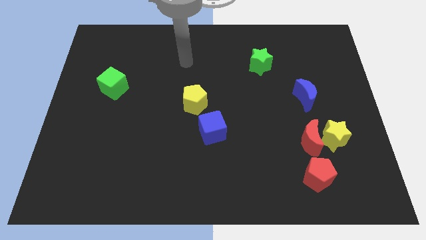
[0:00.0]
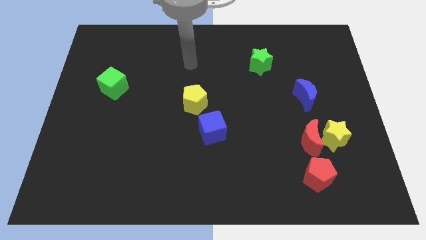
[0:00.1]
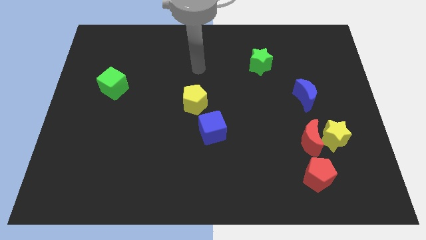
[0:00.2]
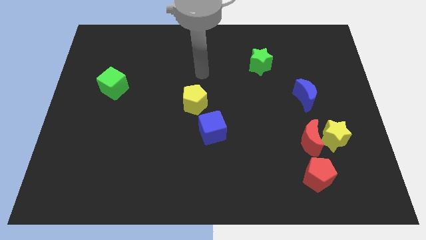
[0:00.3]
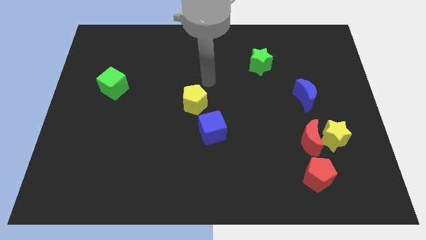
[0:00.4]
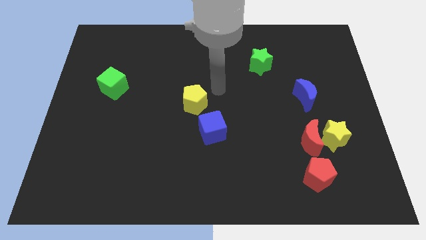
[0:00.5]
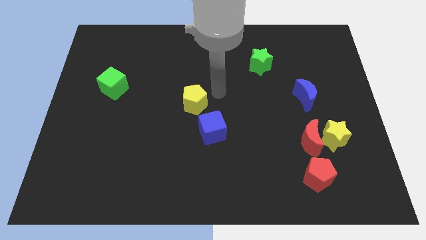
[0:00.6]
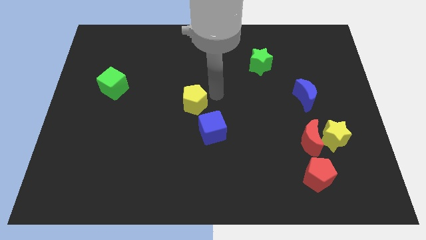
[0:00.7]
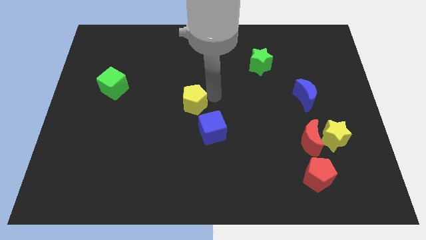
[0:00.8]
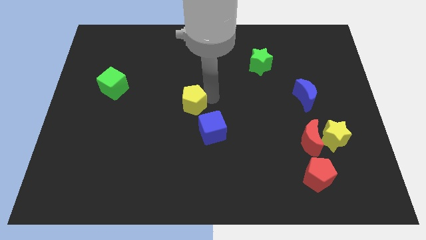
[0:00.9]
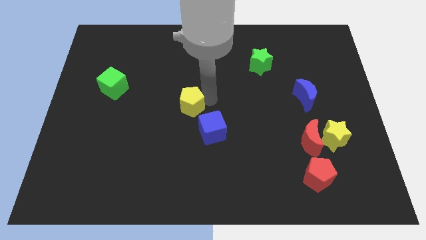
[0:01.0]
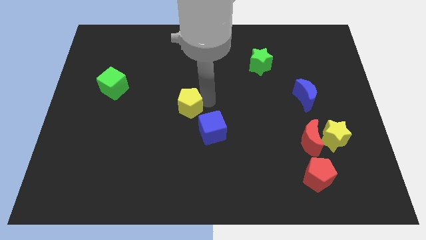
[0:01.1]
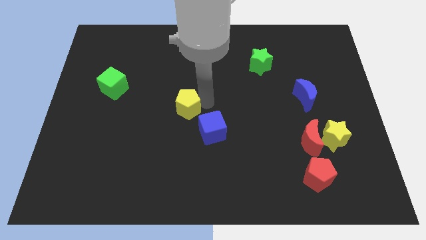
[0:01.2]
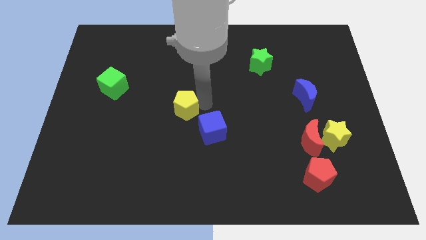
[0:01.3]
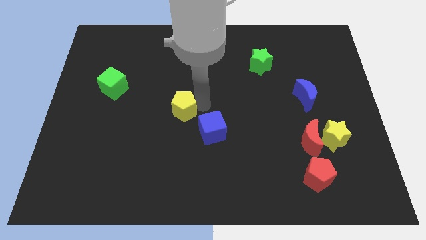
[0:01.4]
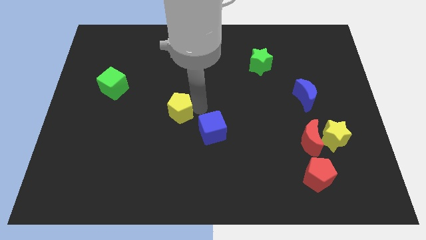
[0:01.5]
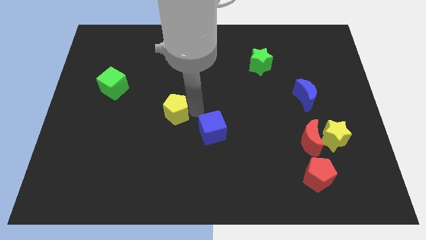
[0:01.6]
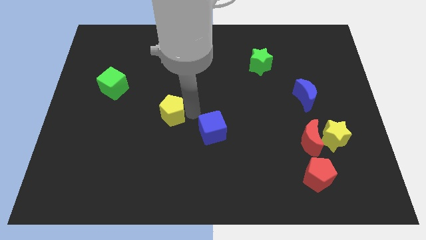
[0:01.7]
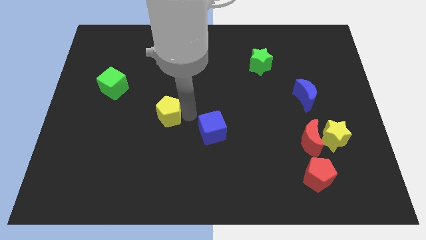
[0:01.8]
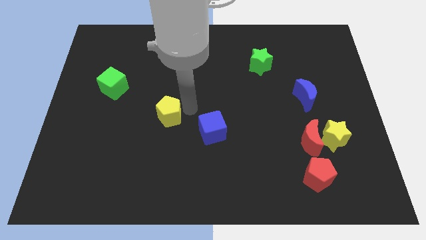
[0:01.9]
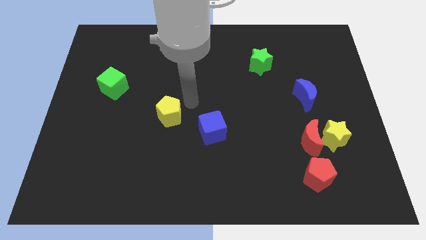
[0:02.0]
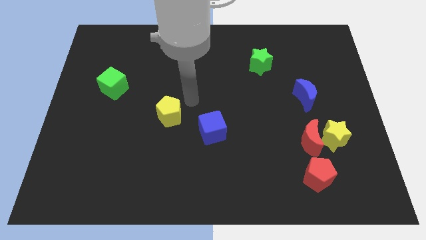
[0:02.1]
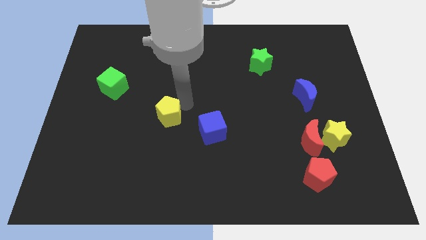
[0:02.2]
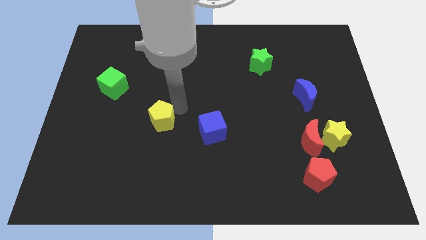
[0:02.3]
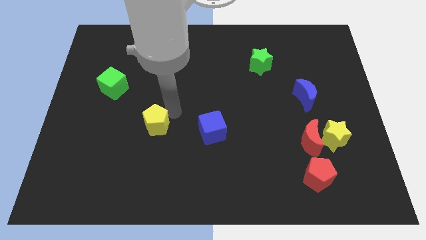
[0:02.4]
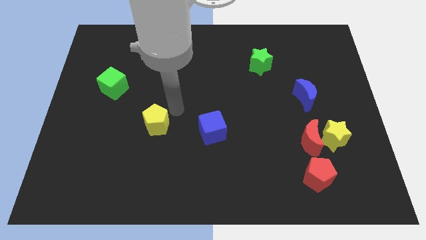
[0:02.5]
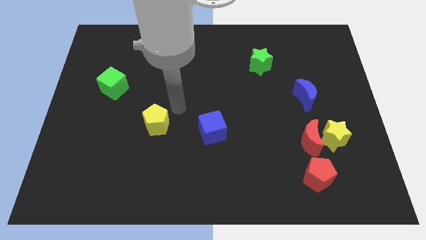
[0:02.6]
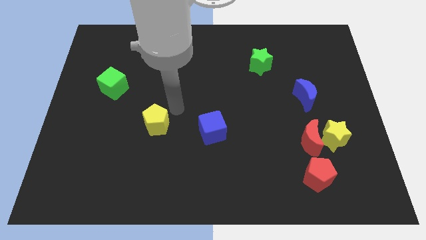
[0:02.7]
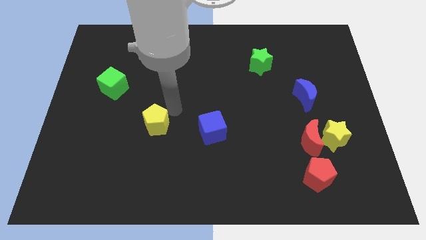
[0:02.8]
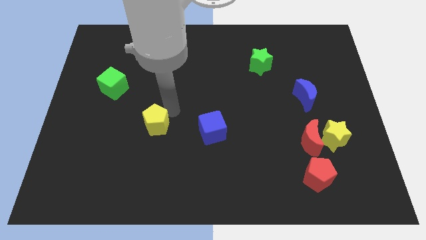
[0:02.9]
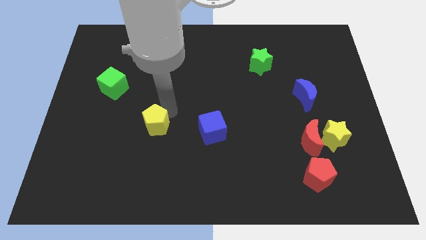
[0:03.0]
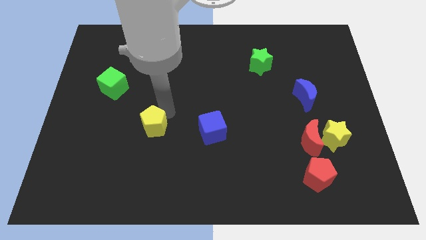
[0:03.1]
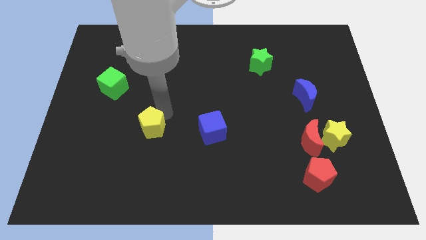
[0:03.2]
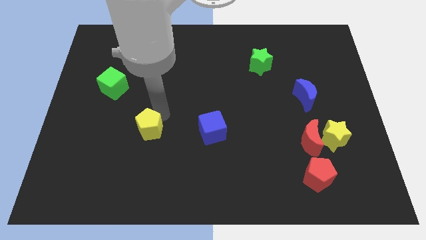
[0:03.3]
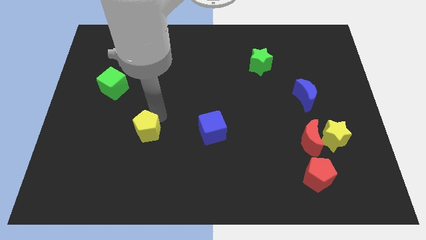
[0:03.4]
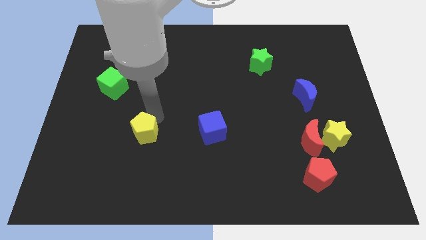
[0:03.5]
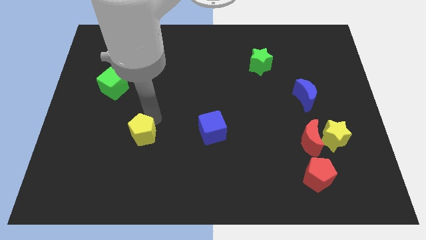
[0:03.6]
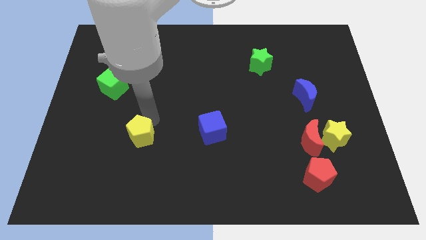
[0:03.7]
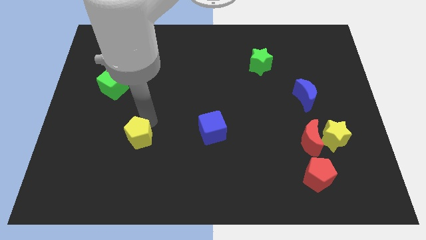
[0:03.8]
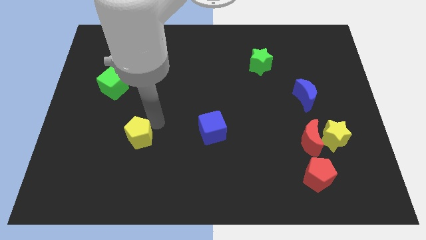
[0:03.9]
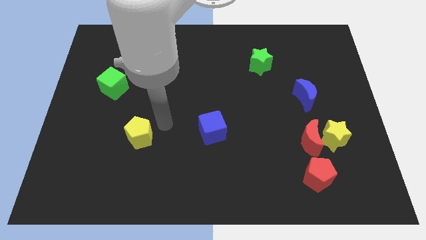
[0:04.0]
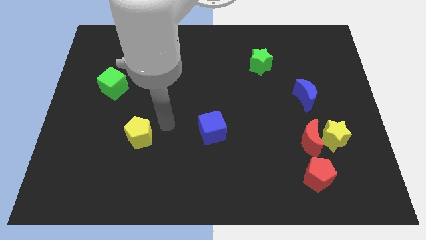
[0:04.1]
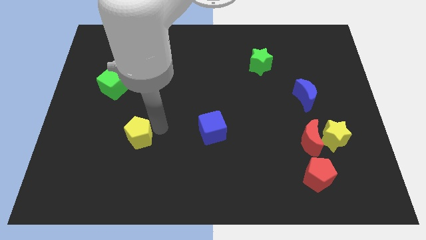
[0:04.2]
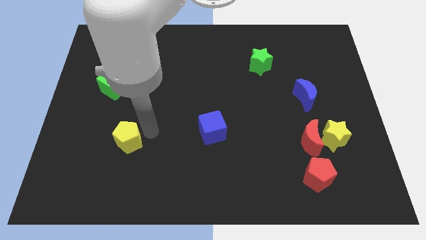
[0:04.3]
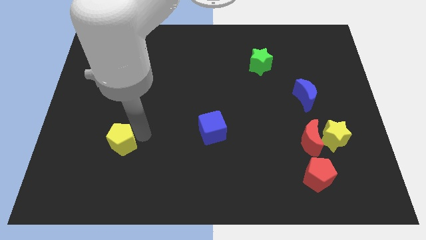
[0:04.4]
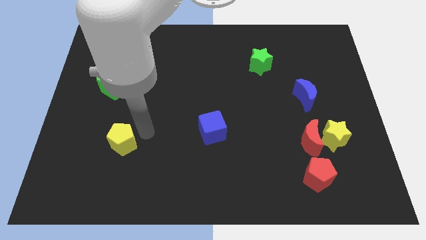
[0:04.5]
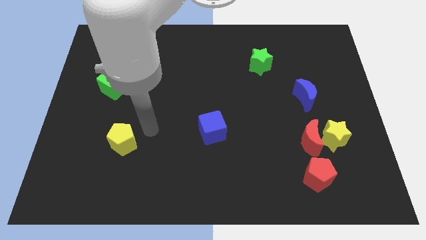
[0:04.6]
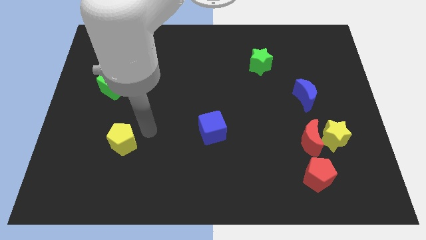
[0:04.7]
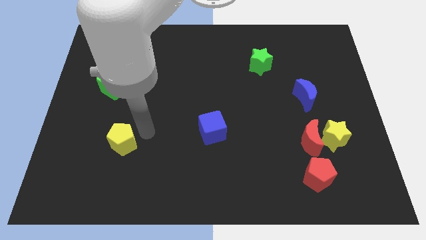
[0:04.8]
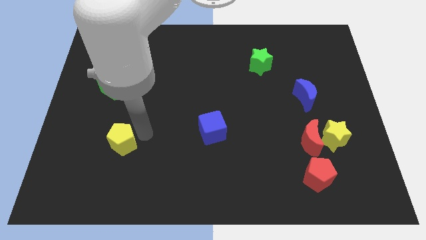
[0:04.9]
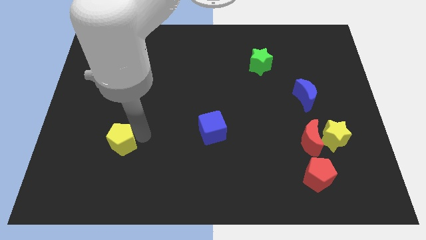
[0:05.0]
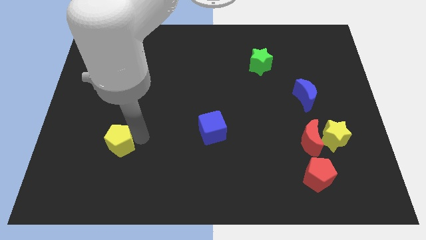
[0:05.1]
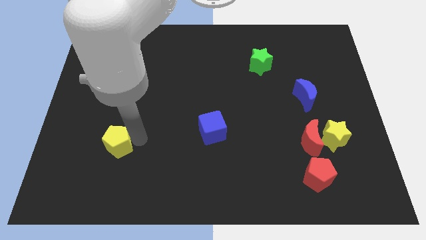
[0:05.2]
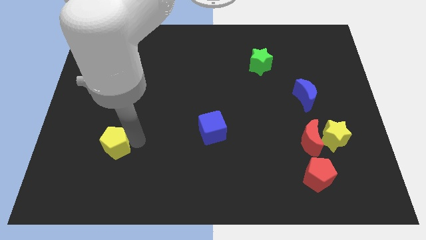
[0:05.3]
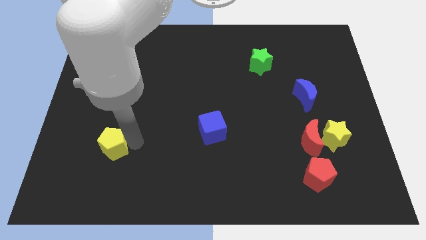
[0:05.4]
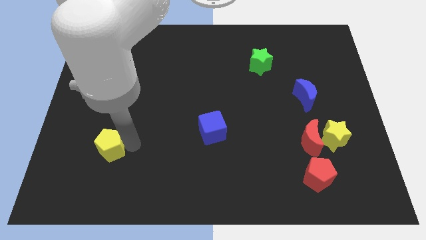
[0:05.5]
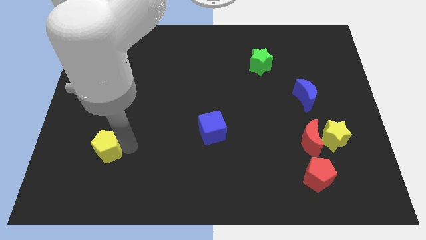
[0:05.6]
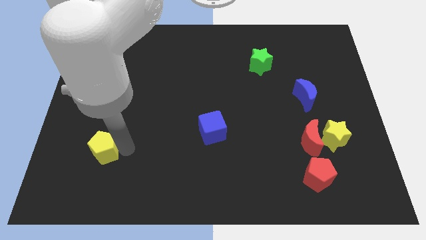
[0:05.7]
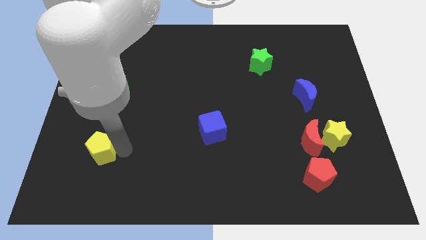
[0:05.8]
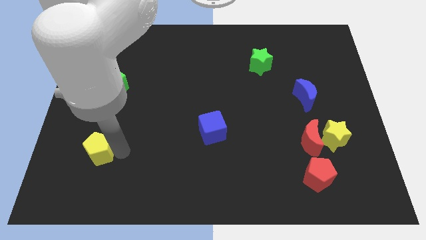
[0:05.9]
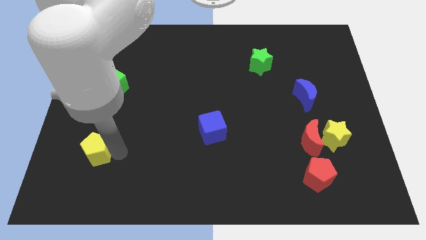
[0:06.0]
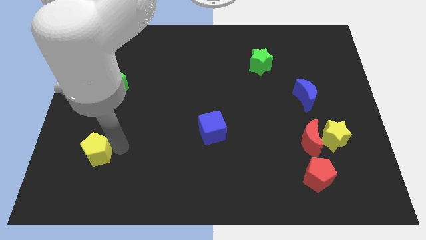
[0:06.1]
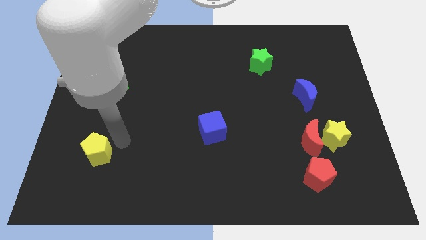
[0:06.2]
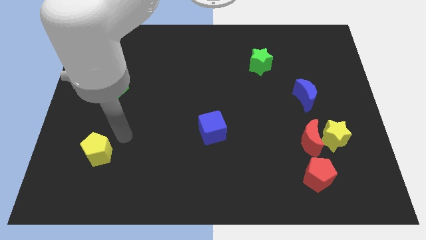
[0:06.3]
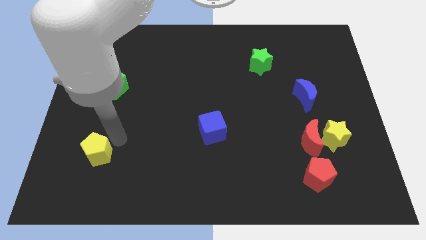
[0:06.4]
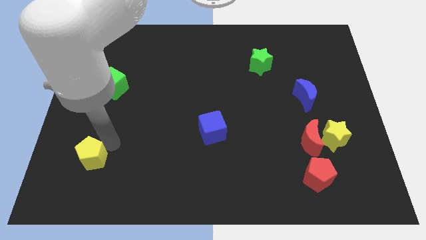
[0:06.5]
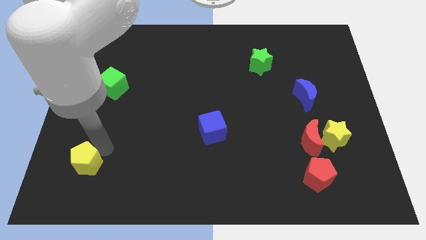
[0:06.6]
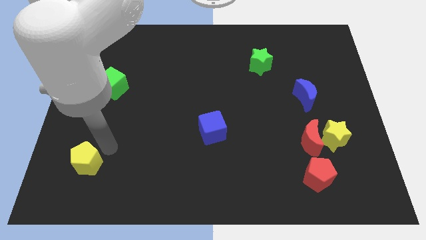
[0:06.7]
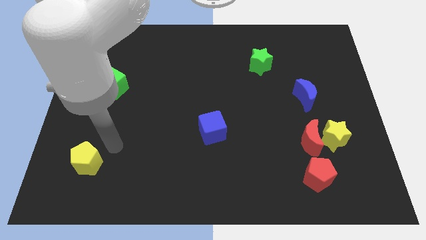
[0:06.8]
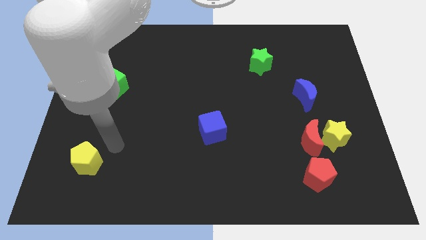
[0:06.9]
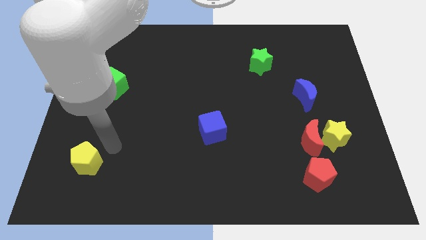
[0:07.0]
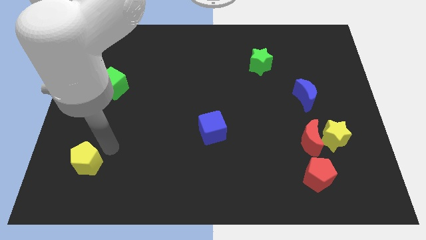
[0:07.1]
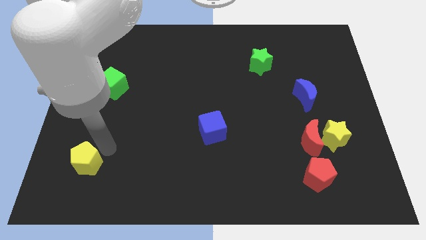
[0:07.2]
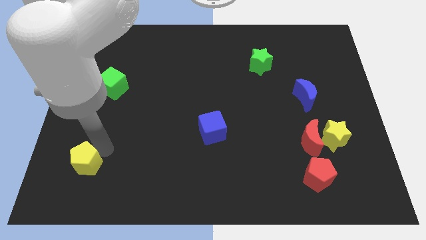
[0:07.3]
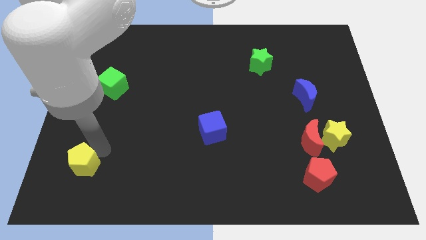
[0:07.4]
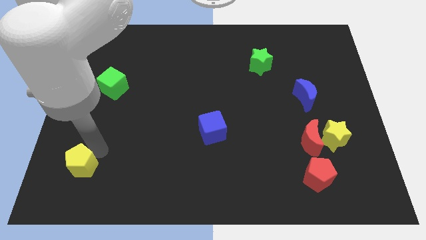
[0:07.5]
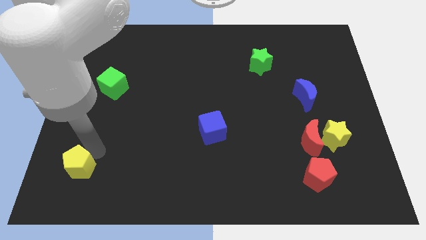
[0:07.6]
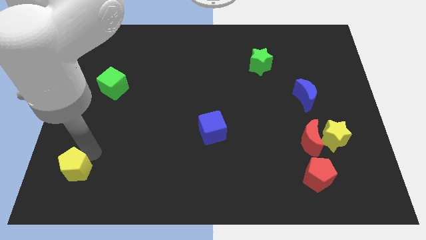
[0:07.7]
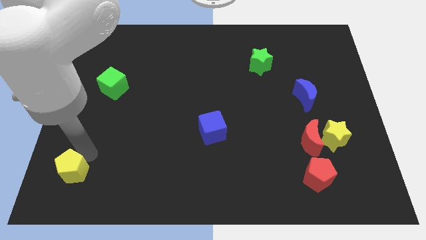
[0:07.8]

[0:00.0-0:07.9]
push the yellow pentagon to the bottom left
